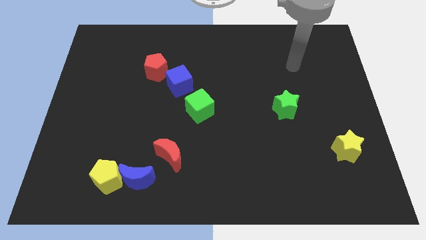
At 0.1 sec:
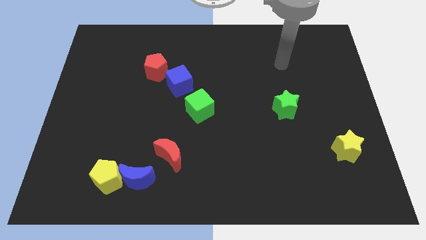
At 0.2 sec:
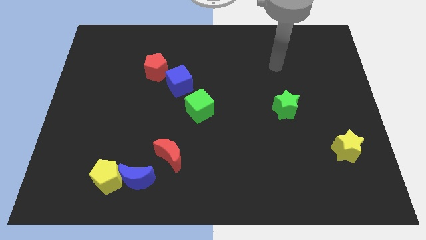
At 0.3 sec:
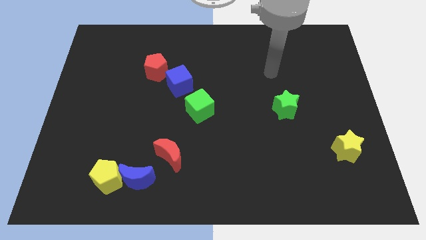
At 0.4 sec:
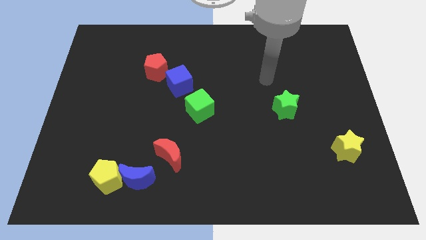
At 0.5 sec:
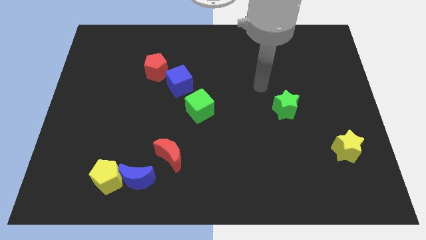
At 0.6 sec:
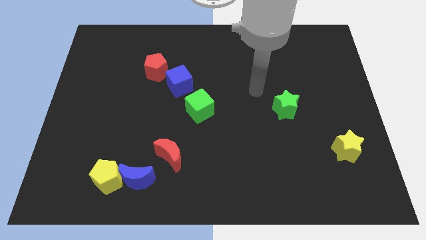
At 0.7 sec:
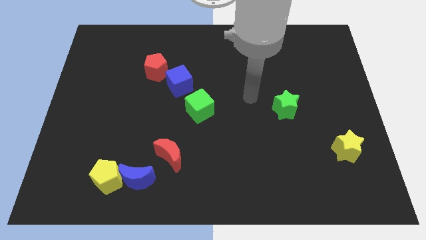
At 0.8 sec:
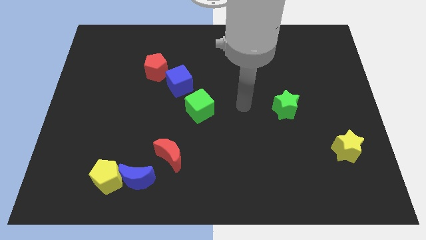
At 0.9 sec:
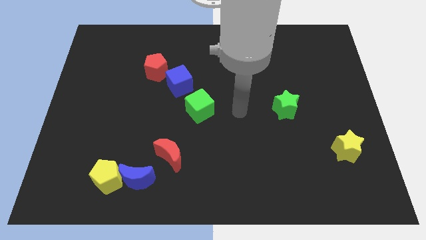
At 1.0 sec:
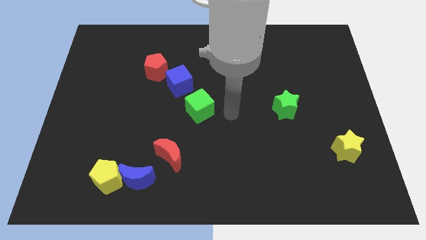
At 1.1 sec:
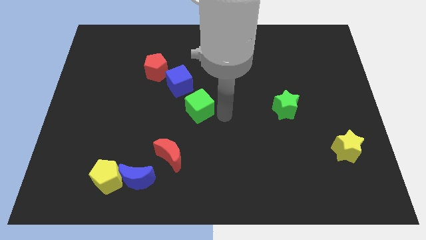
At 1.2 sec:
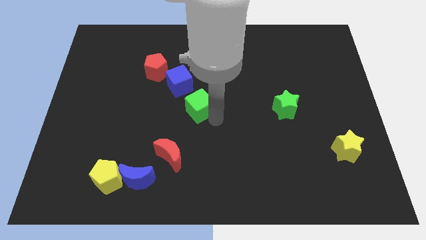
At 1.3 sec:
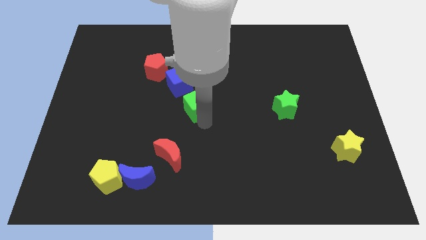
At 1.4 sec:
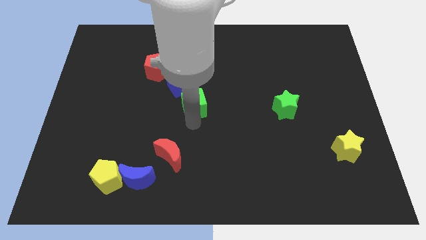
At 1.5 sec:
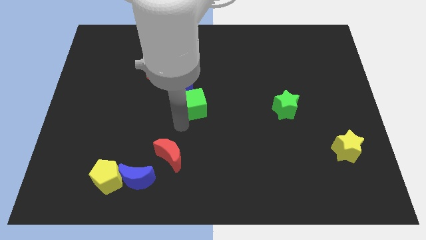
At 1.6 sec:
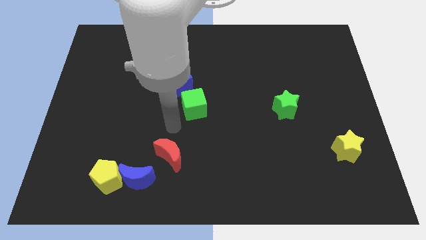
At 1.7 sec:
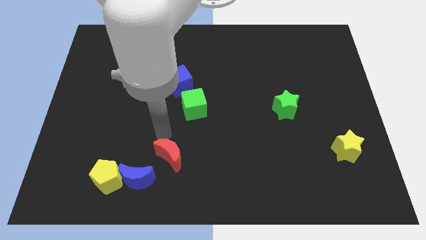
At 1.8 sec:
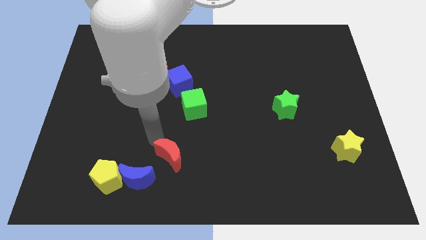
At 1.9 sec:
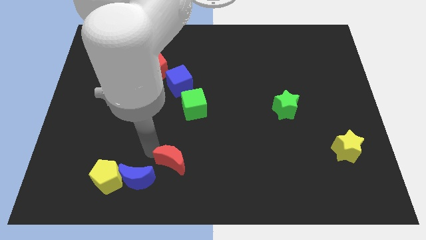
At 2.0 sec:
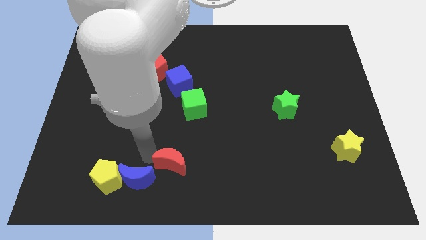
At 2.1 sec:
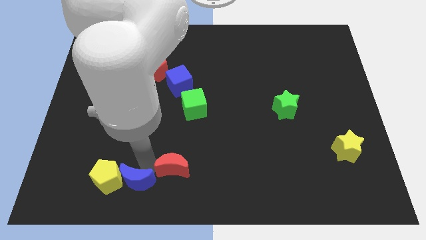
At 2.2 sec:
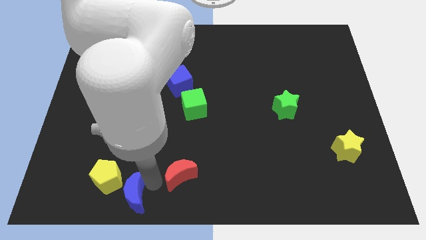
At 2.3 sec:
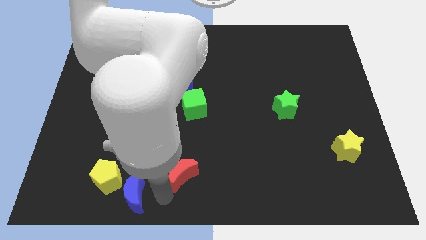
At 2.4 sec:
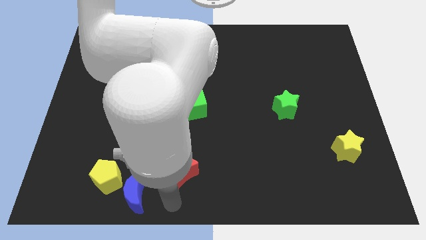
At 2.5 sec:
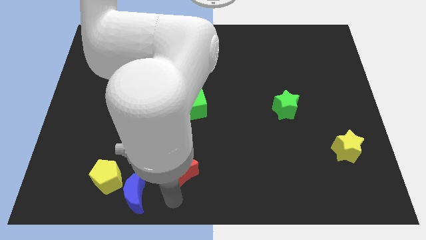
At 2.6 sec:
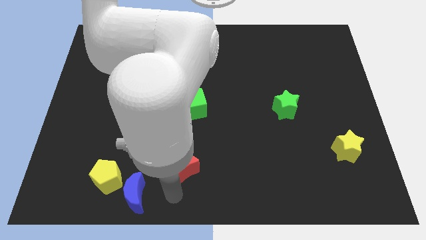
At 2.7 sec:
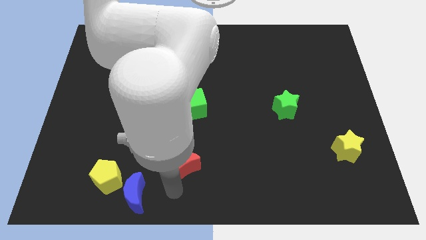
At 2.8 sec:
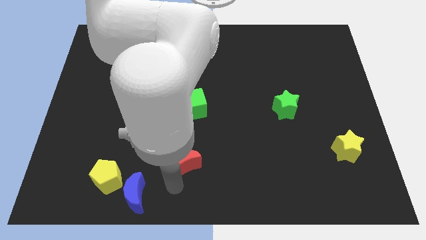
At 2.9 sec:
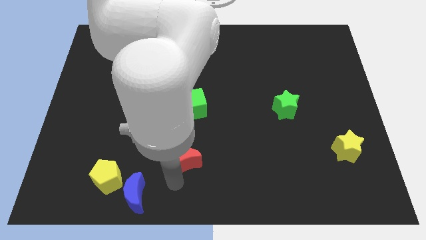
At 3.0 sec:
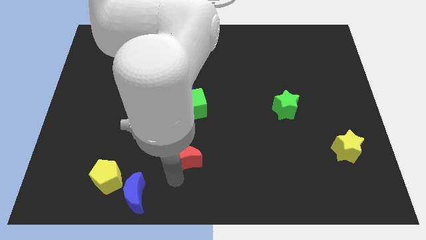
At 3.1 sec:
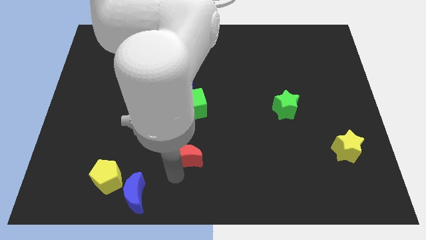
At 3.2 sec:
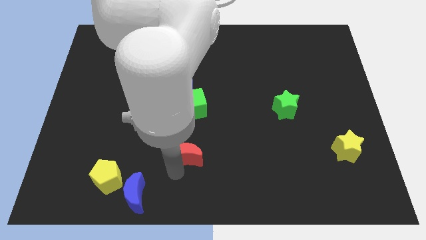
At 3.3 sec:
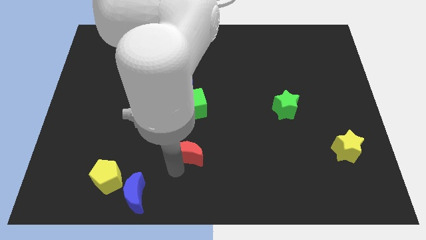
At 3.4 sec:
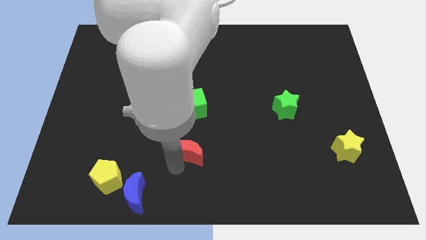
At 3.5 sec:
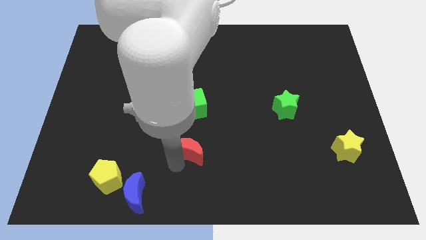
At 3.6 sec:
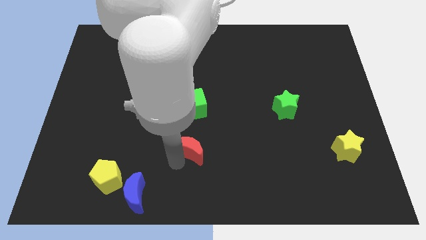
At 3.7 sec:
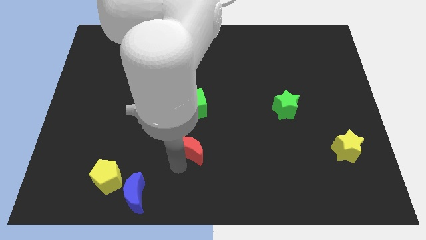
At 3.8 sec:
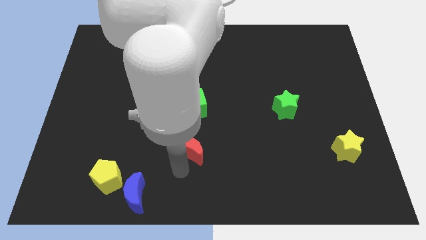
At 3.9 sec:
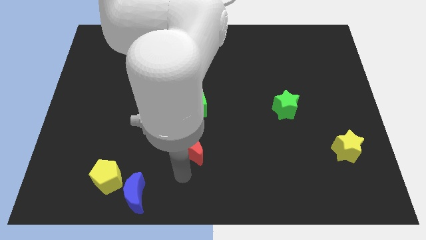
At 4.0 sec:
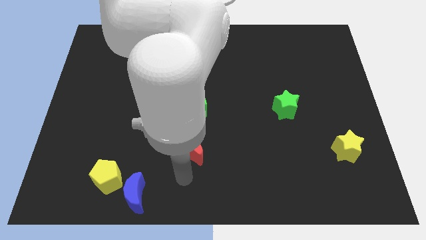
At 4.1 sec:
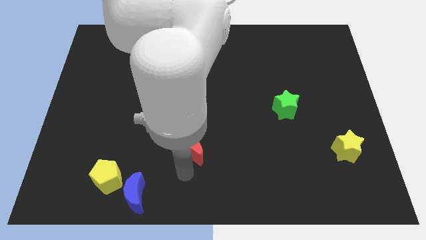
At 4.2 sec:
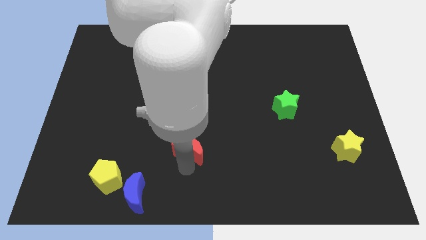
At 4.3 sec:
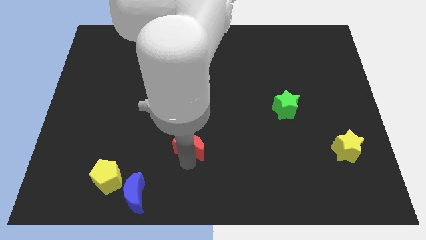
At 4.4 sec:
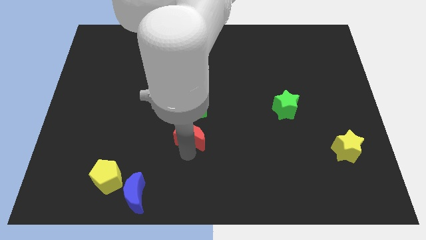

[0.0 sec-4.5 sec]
push the red moon to the center

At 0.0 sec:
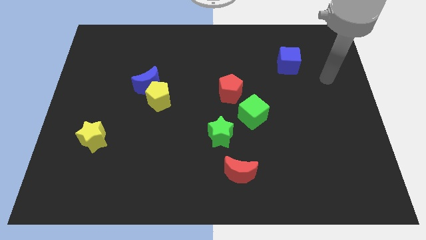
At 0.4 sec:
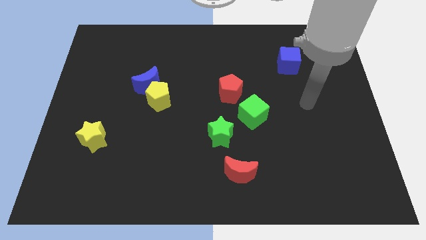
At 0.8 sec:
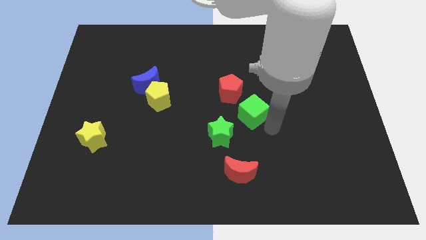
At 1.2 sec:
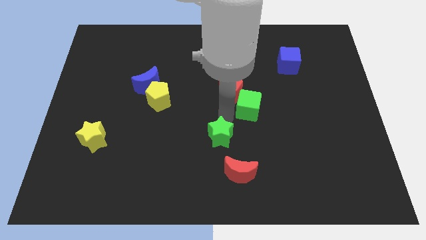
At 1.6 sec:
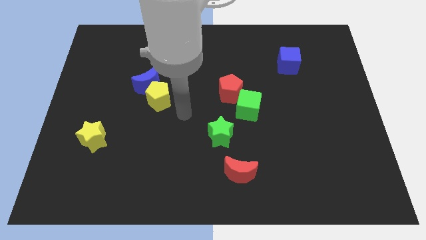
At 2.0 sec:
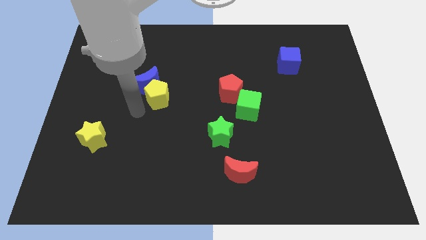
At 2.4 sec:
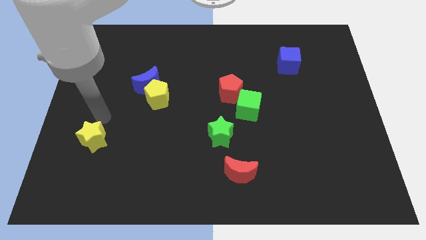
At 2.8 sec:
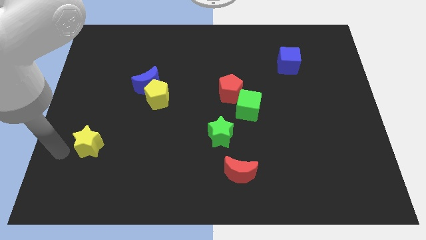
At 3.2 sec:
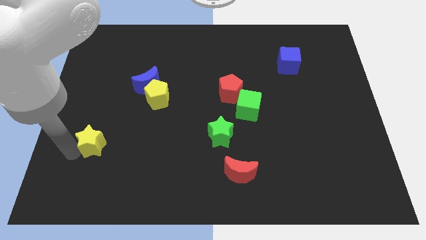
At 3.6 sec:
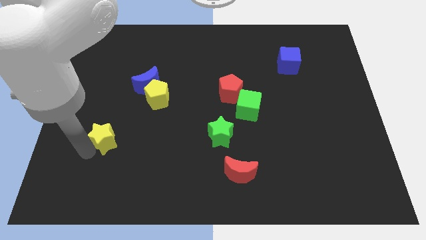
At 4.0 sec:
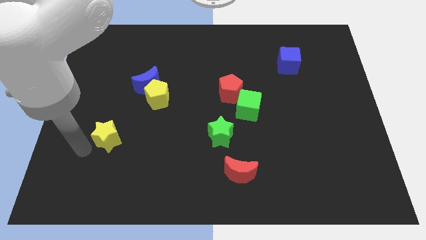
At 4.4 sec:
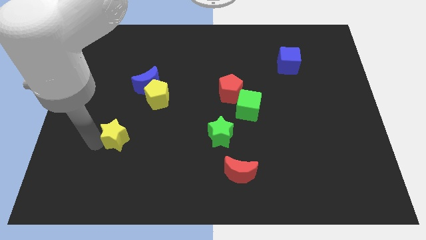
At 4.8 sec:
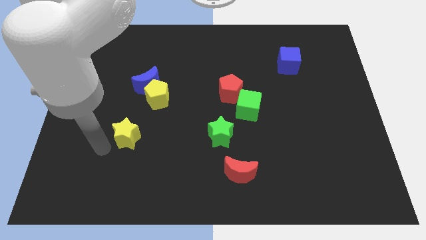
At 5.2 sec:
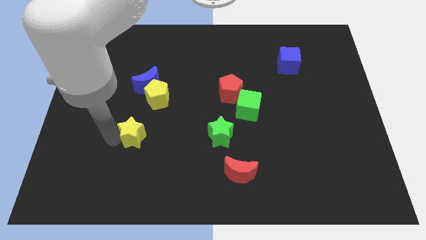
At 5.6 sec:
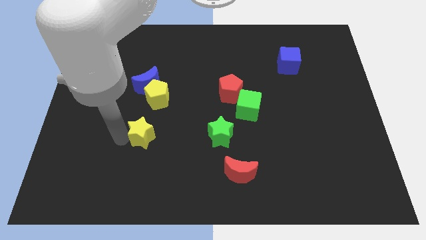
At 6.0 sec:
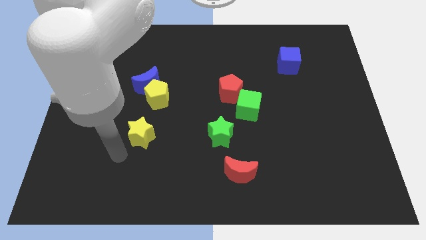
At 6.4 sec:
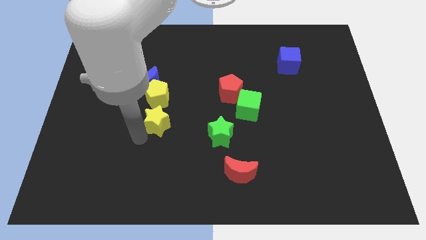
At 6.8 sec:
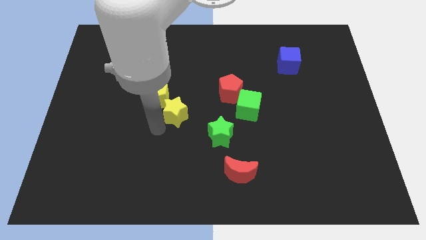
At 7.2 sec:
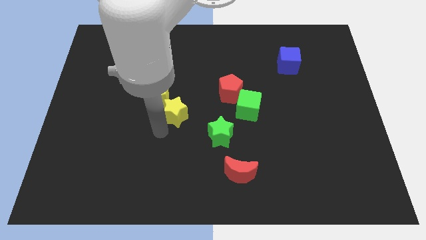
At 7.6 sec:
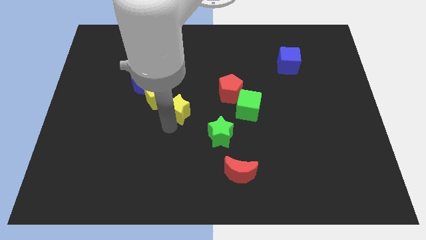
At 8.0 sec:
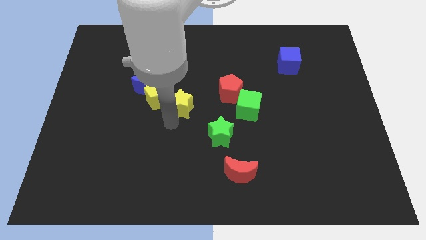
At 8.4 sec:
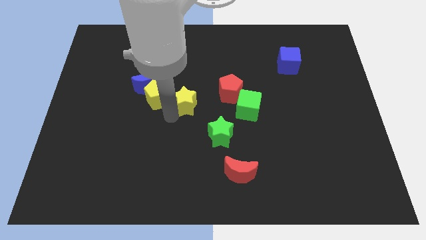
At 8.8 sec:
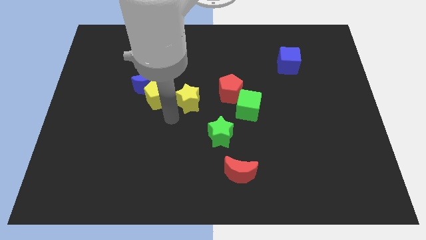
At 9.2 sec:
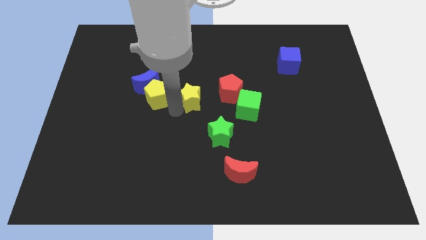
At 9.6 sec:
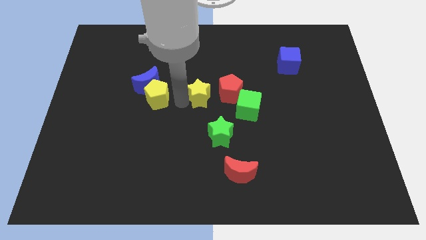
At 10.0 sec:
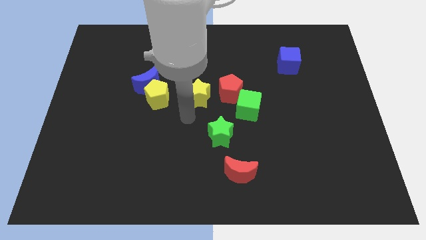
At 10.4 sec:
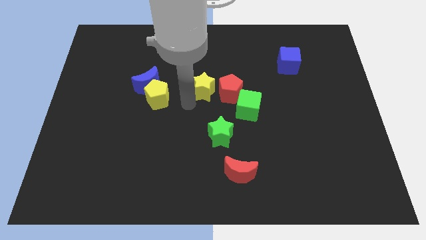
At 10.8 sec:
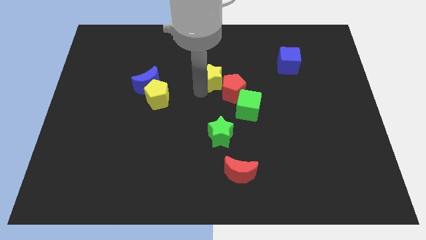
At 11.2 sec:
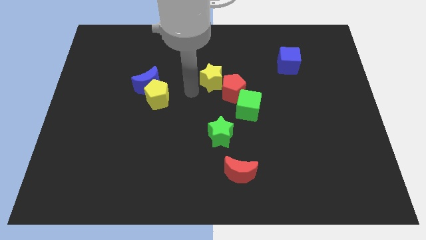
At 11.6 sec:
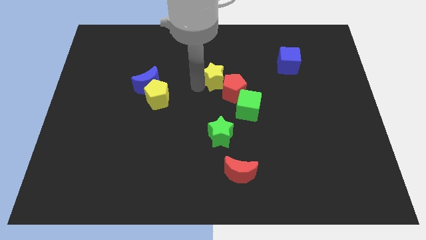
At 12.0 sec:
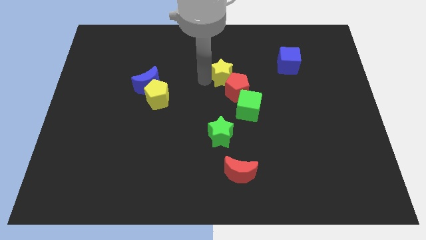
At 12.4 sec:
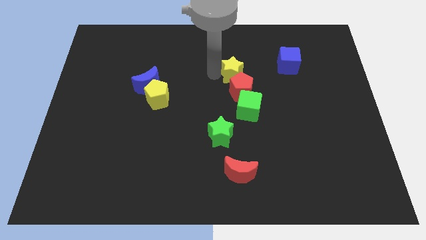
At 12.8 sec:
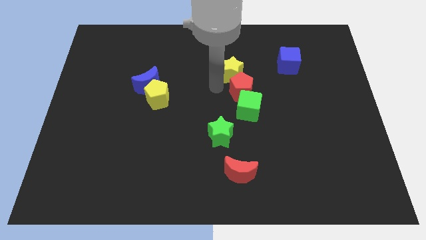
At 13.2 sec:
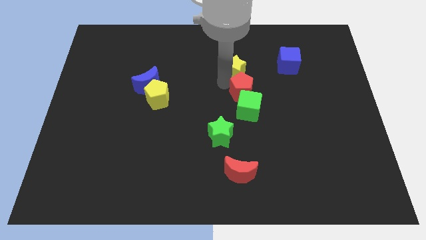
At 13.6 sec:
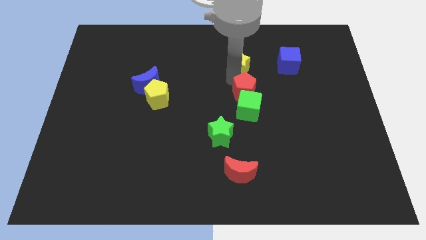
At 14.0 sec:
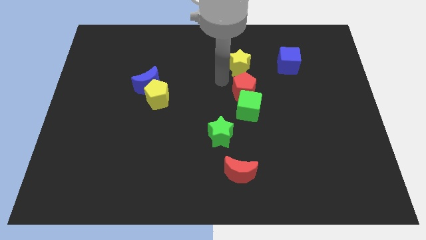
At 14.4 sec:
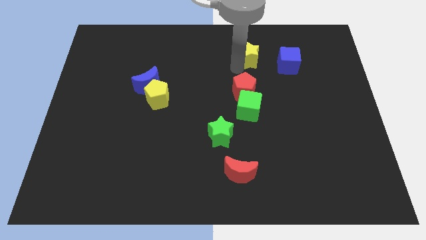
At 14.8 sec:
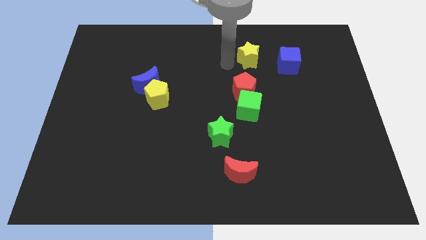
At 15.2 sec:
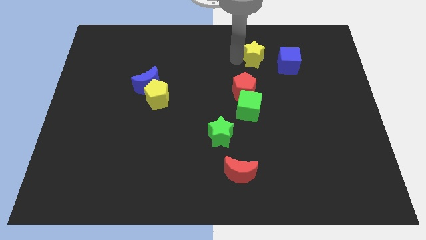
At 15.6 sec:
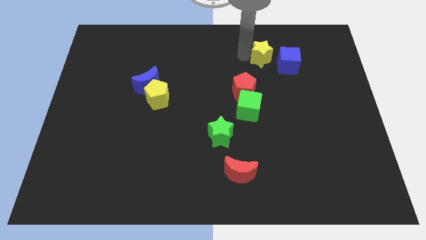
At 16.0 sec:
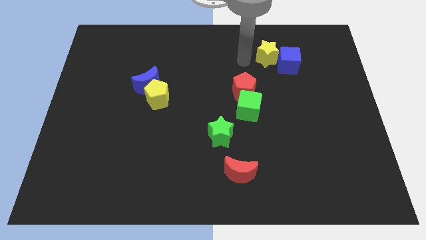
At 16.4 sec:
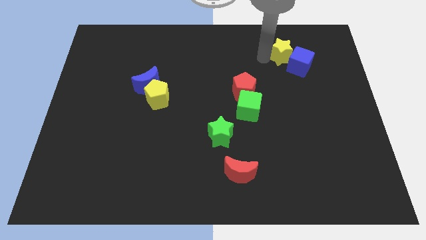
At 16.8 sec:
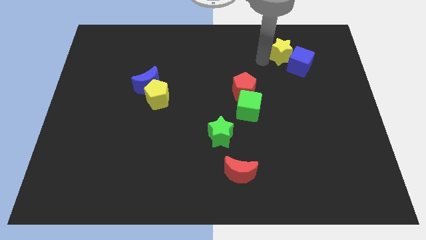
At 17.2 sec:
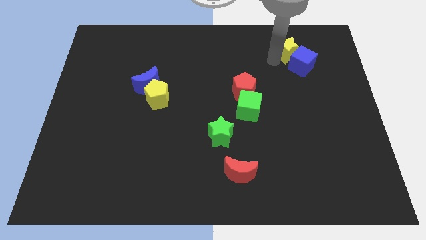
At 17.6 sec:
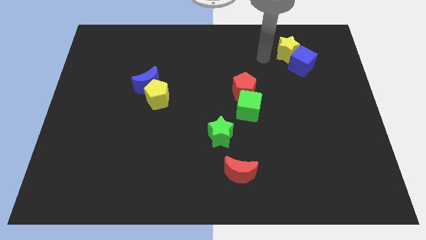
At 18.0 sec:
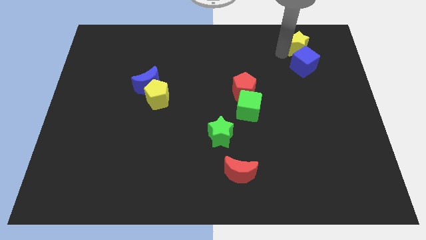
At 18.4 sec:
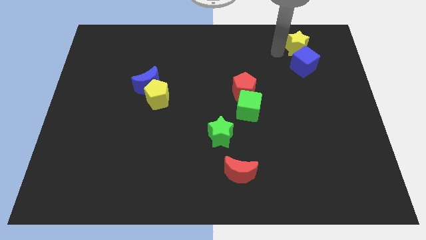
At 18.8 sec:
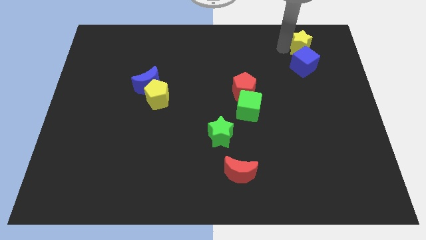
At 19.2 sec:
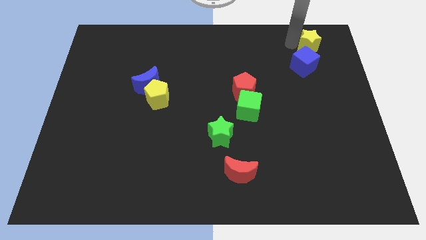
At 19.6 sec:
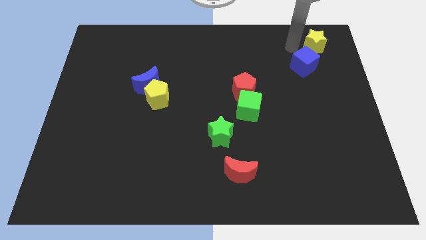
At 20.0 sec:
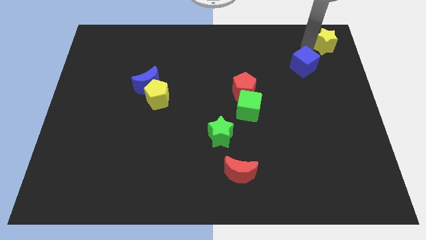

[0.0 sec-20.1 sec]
put the yellow star to the top right corner
